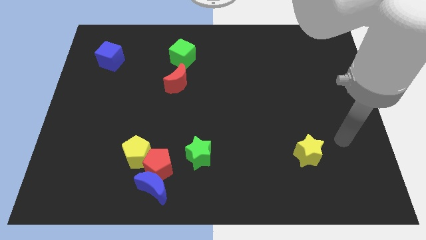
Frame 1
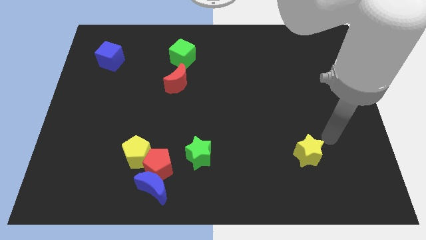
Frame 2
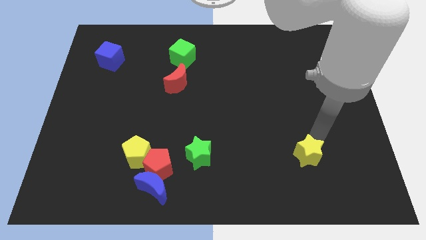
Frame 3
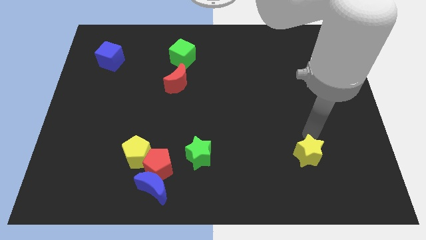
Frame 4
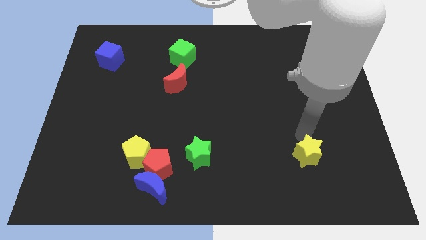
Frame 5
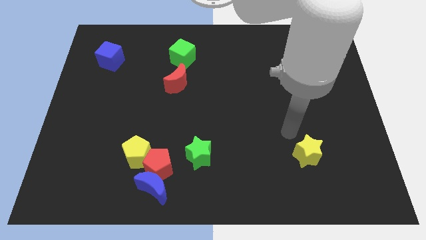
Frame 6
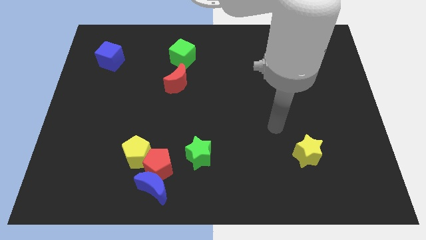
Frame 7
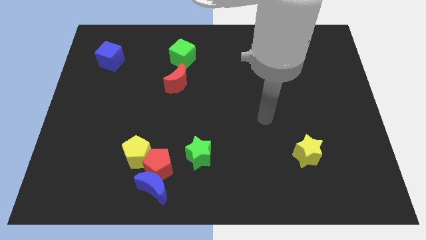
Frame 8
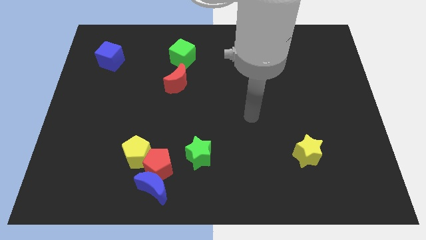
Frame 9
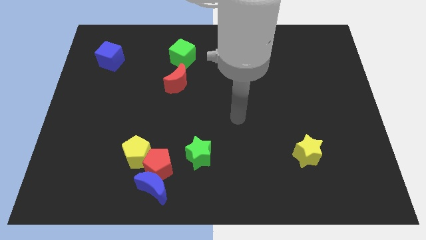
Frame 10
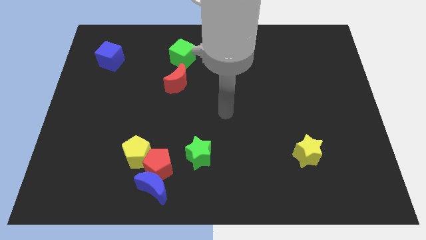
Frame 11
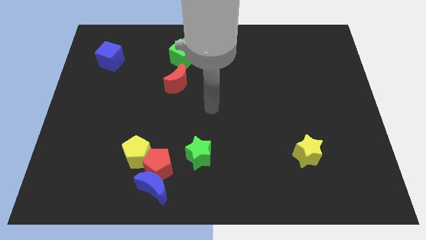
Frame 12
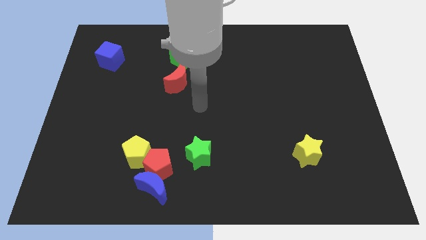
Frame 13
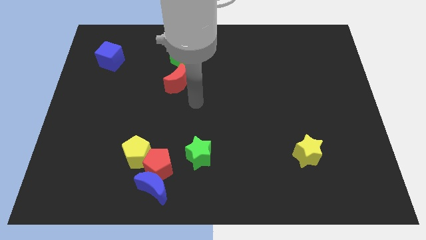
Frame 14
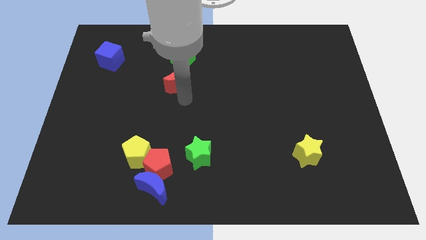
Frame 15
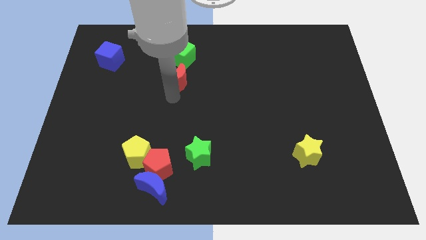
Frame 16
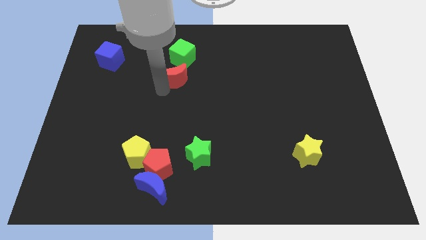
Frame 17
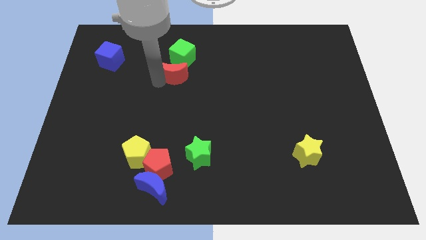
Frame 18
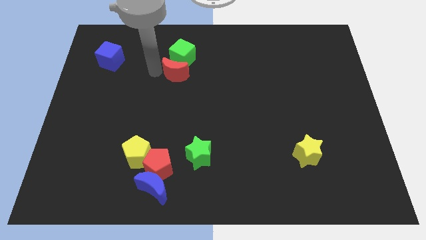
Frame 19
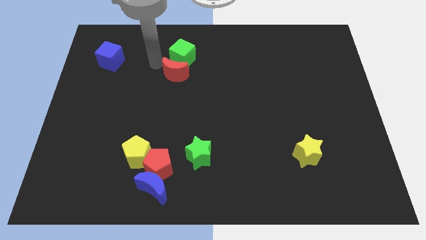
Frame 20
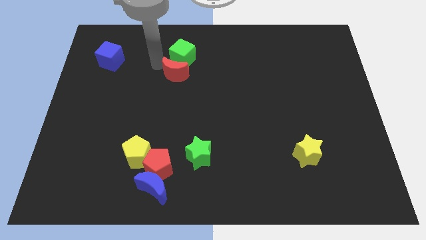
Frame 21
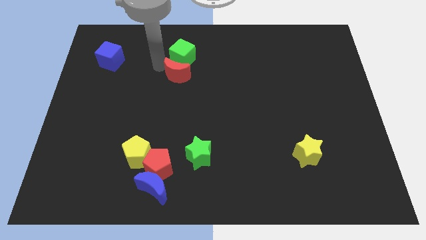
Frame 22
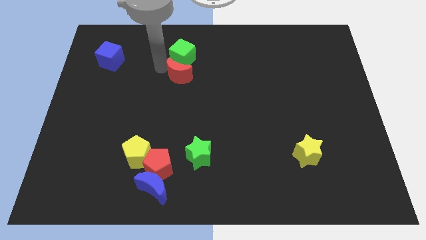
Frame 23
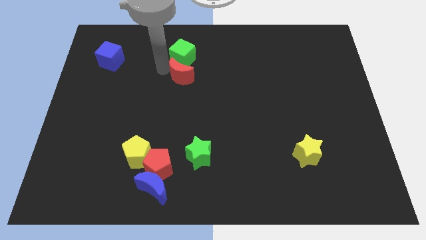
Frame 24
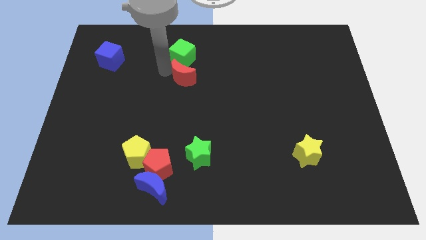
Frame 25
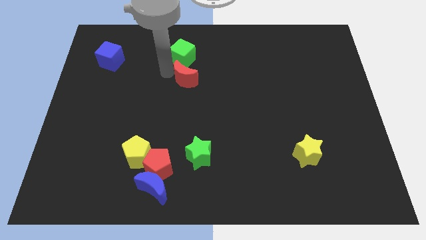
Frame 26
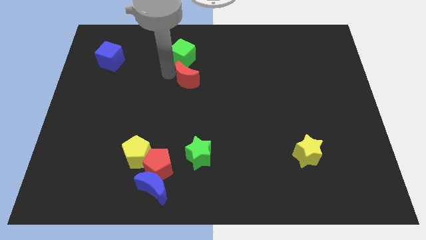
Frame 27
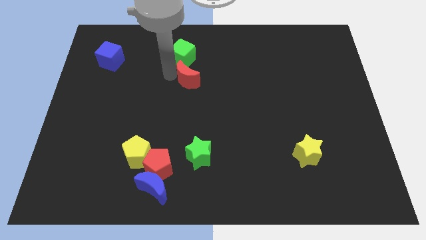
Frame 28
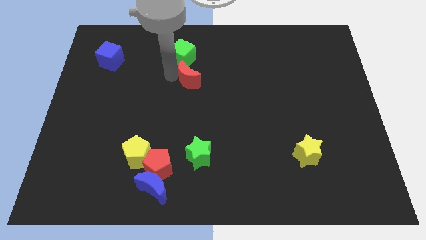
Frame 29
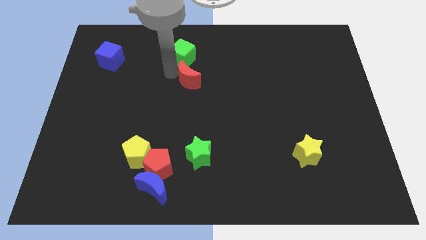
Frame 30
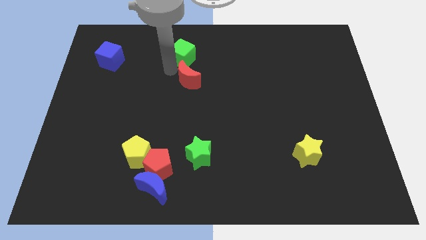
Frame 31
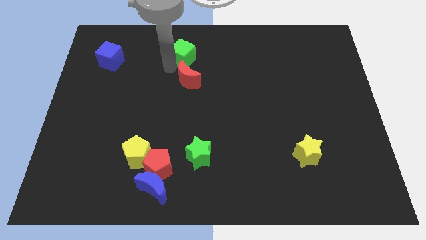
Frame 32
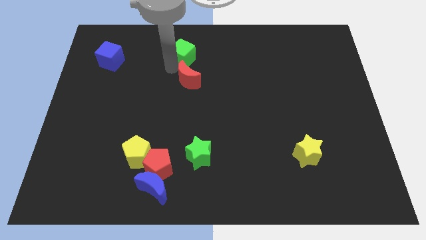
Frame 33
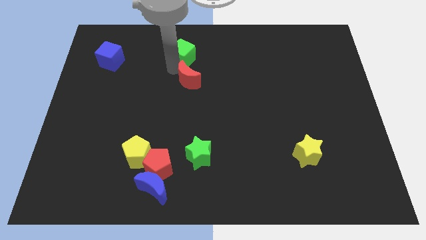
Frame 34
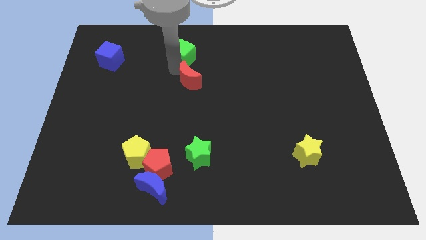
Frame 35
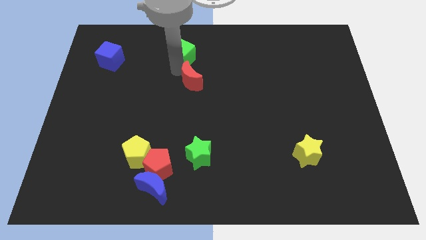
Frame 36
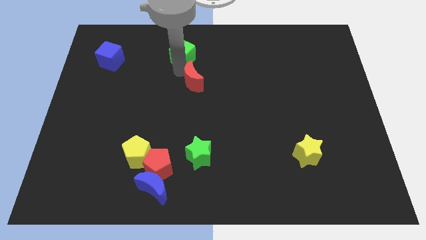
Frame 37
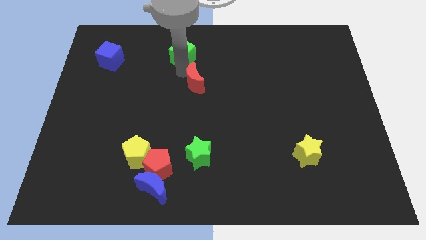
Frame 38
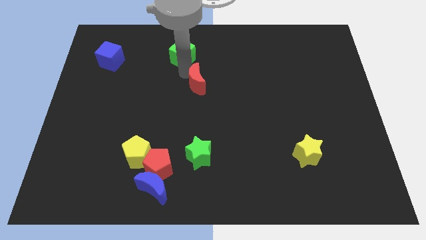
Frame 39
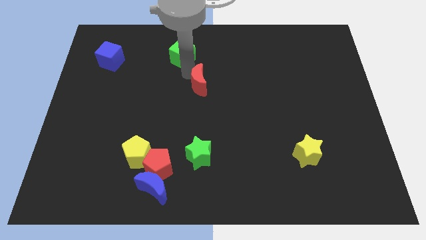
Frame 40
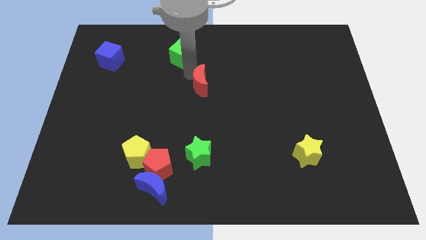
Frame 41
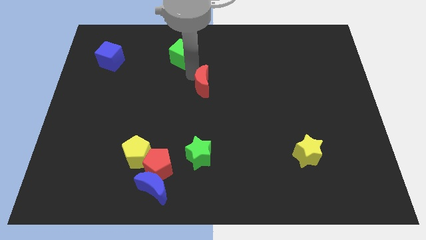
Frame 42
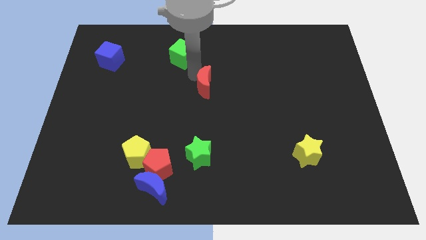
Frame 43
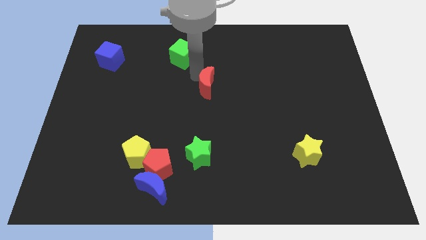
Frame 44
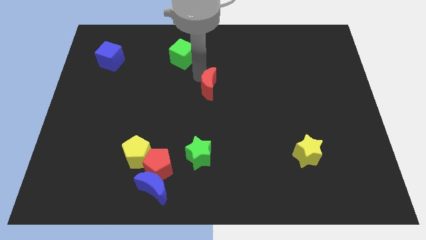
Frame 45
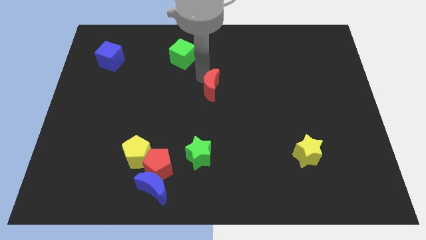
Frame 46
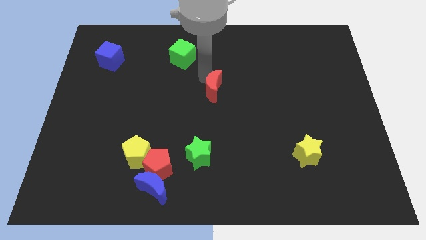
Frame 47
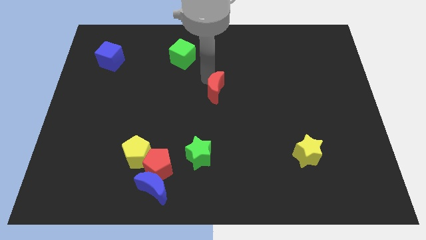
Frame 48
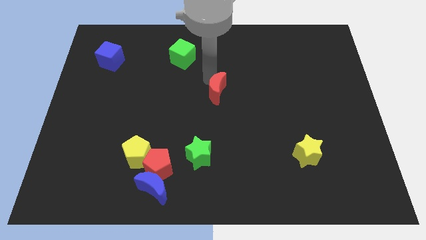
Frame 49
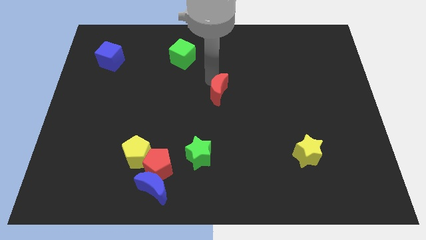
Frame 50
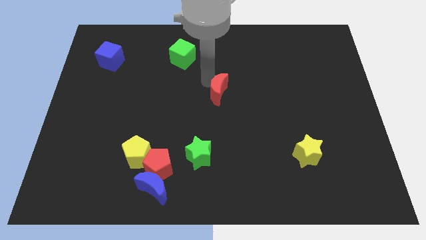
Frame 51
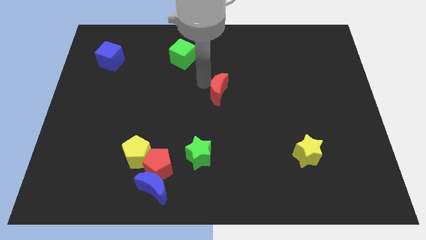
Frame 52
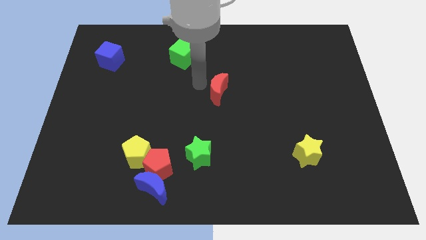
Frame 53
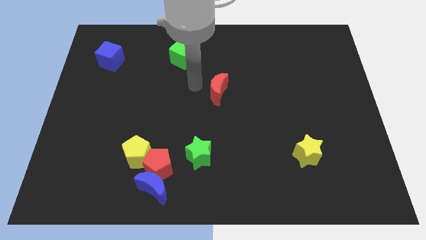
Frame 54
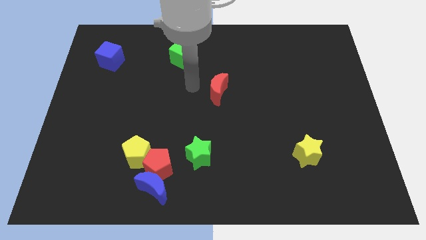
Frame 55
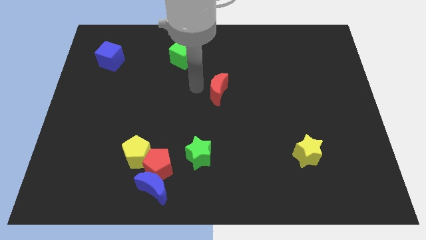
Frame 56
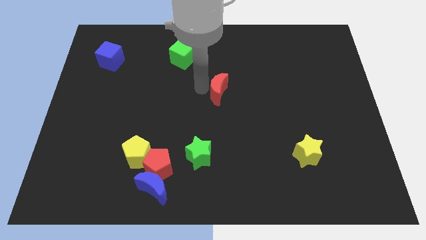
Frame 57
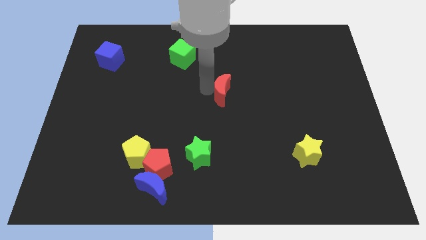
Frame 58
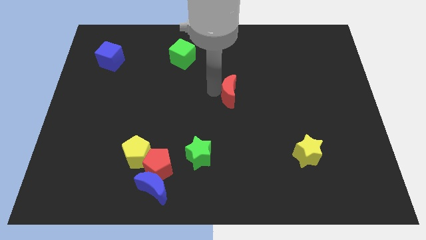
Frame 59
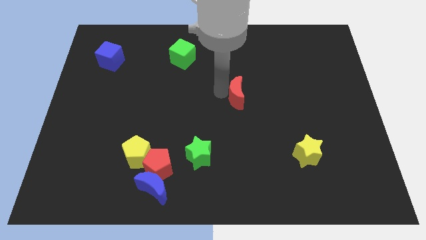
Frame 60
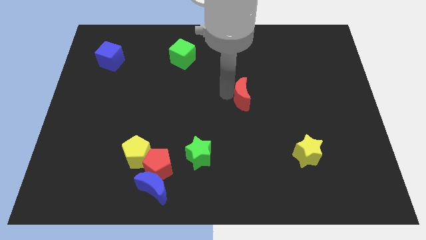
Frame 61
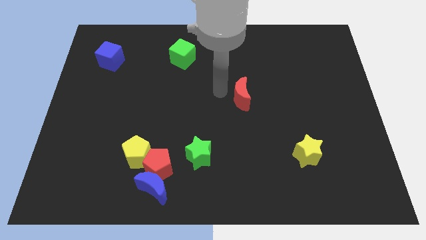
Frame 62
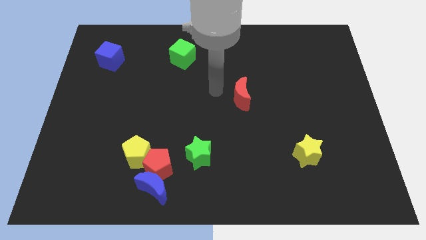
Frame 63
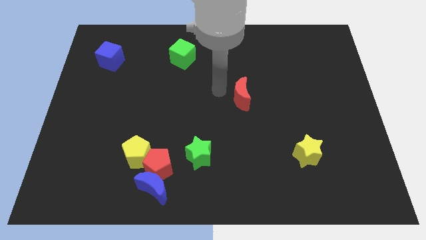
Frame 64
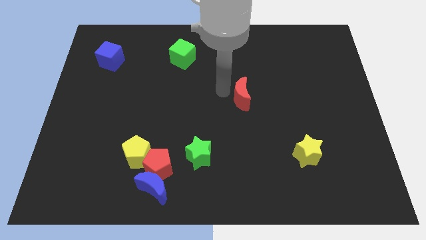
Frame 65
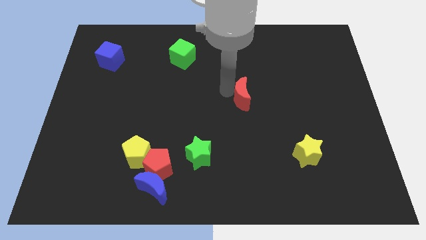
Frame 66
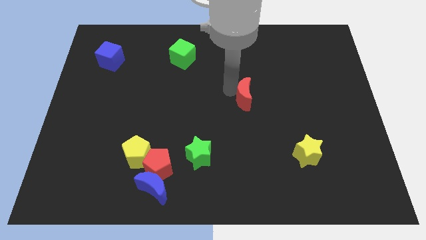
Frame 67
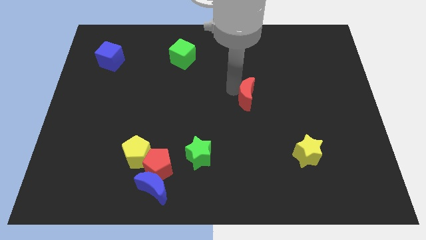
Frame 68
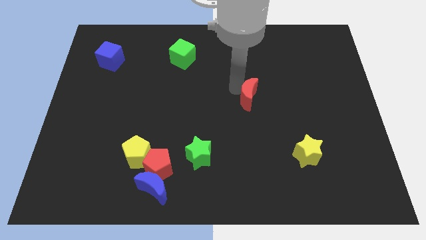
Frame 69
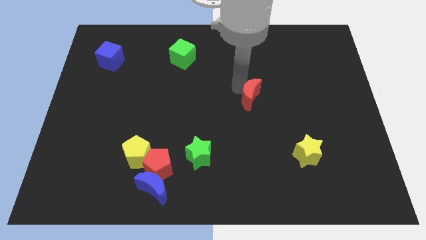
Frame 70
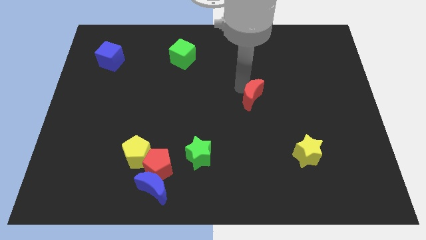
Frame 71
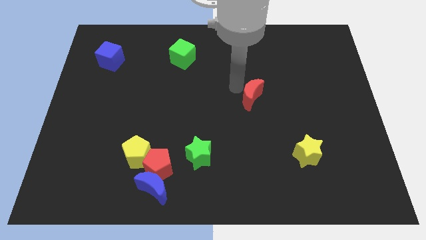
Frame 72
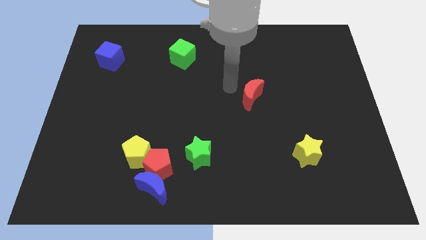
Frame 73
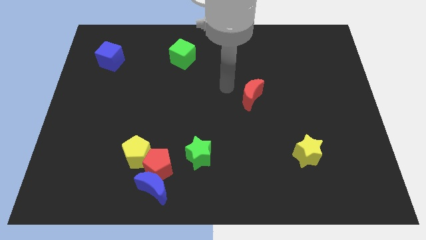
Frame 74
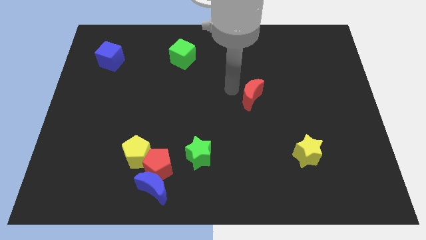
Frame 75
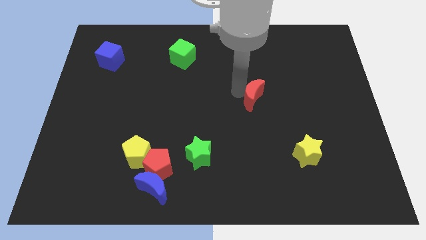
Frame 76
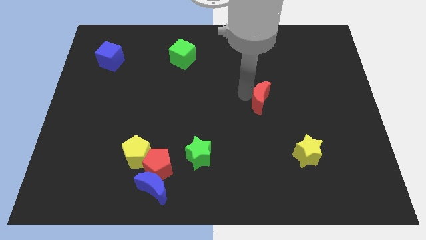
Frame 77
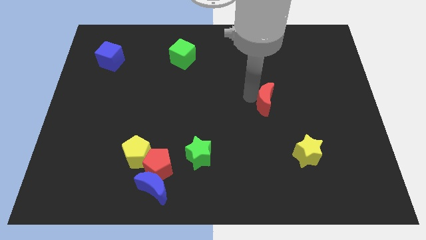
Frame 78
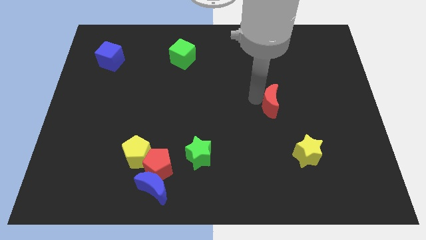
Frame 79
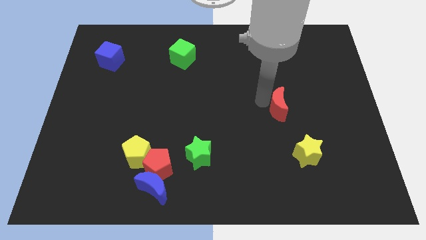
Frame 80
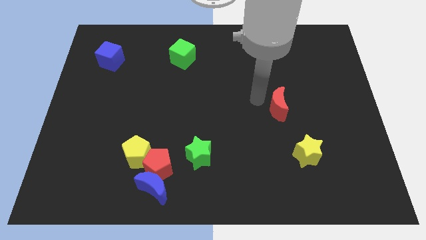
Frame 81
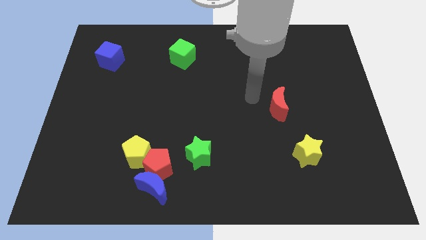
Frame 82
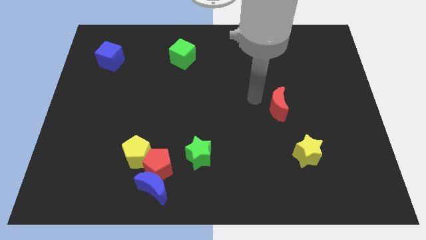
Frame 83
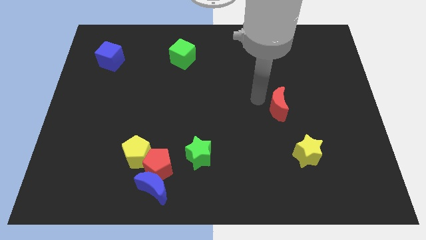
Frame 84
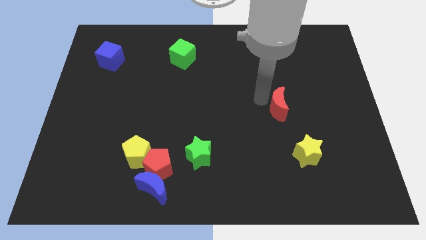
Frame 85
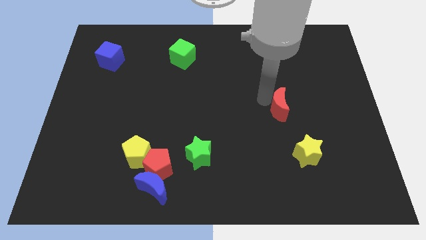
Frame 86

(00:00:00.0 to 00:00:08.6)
slide the red moon to the top of the yellow star
